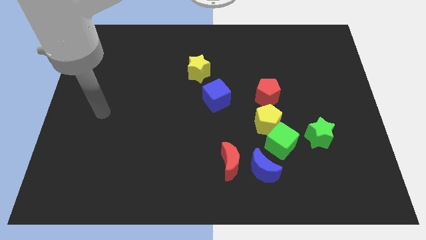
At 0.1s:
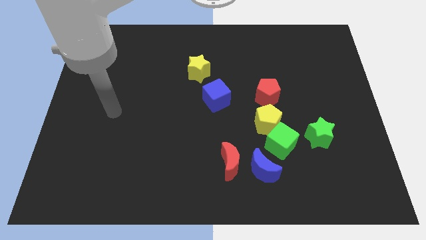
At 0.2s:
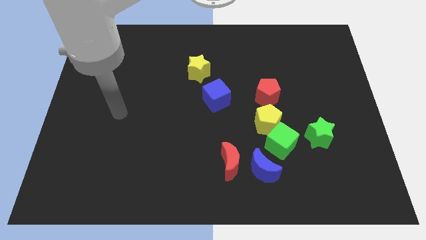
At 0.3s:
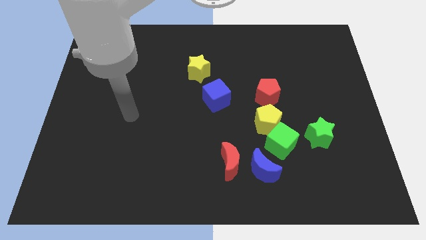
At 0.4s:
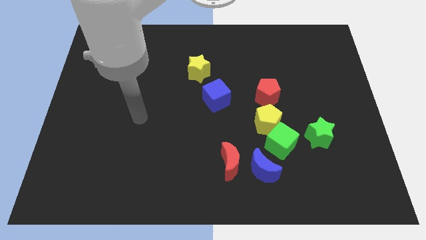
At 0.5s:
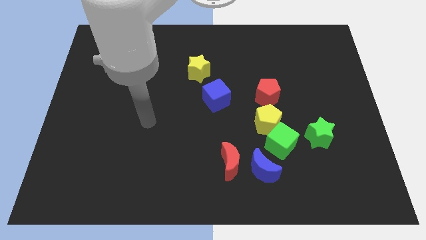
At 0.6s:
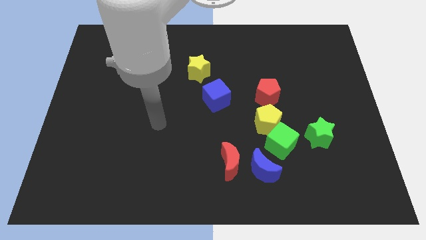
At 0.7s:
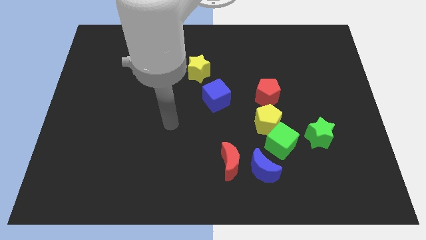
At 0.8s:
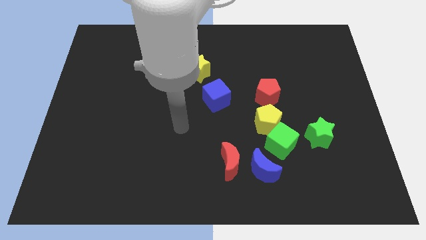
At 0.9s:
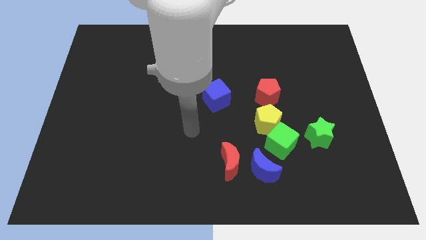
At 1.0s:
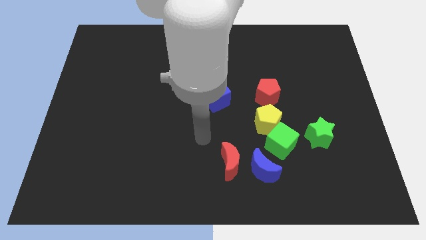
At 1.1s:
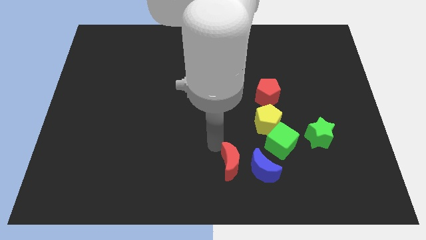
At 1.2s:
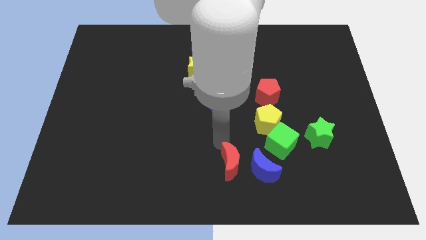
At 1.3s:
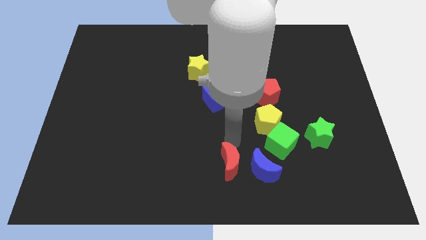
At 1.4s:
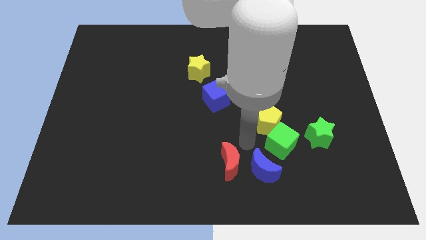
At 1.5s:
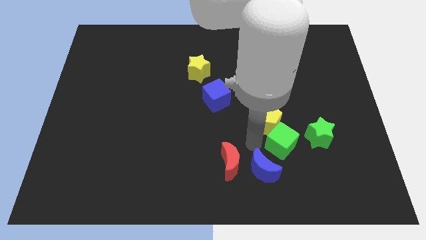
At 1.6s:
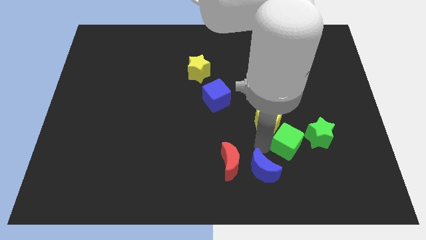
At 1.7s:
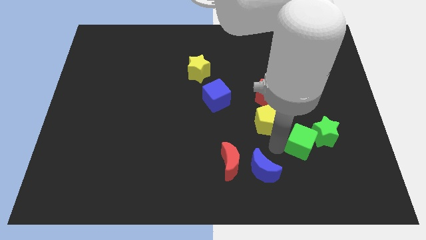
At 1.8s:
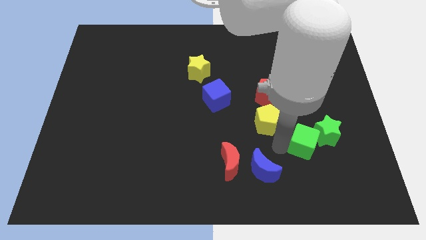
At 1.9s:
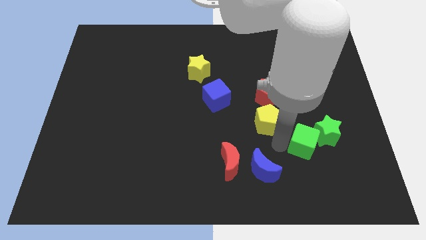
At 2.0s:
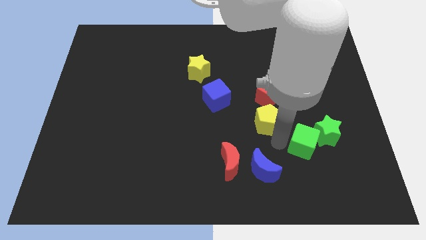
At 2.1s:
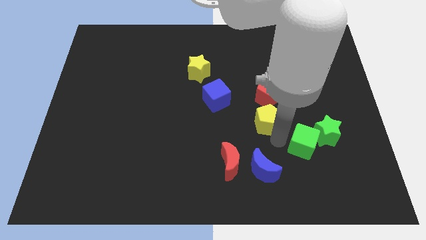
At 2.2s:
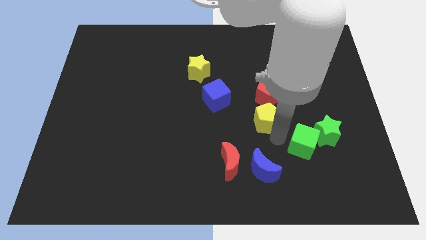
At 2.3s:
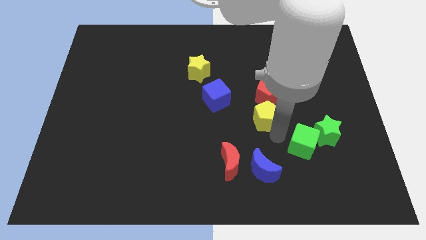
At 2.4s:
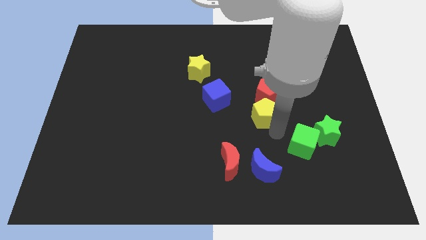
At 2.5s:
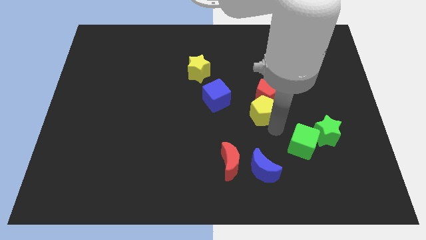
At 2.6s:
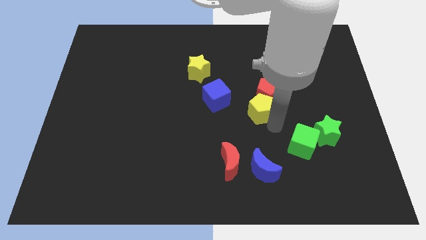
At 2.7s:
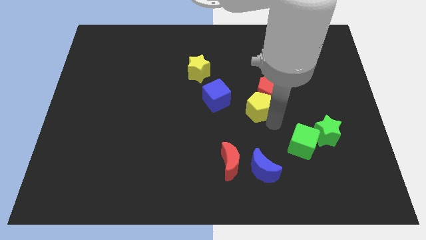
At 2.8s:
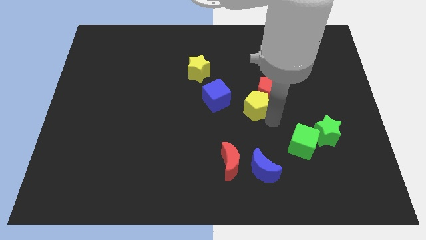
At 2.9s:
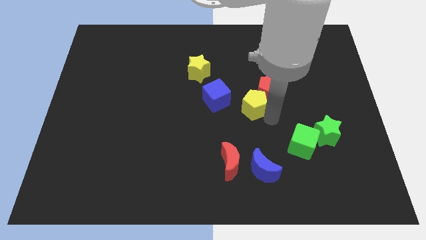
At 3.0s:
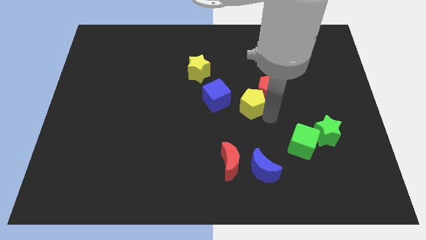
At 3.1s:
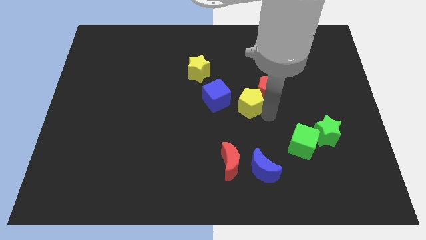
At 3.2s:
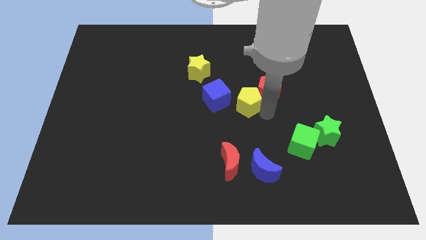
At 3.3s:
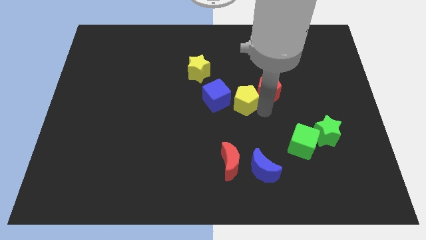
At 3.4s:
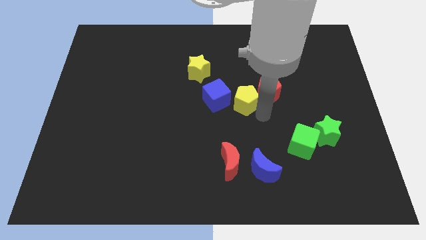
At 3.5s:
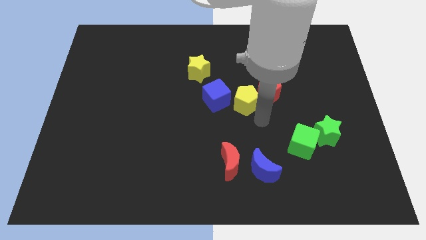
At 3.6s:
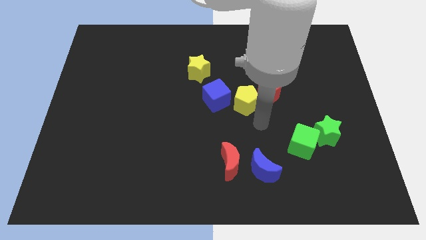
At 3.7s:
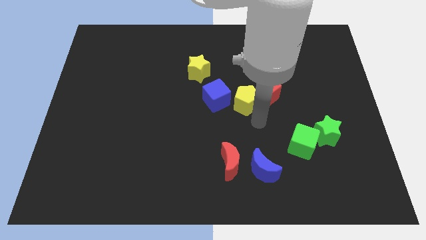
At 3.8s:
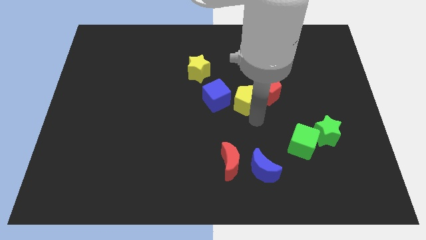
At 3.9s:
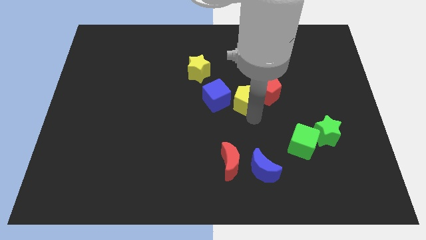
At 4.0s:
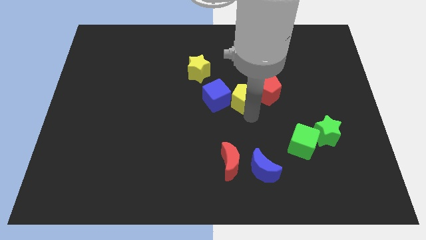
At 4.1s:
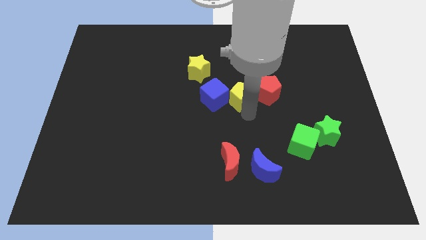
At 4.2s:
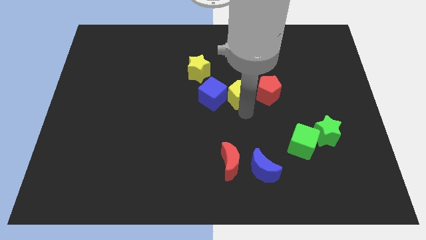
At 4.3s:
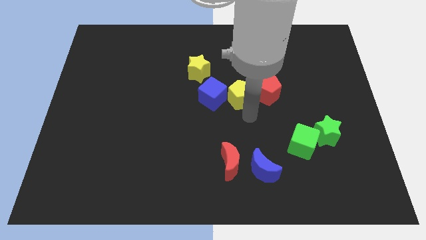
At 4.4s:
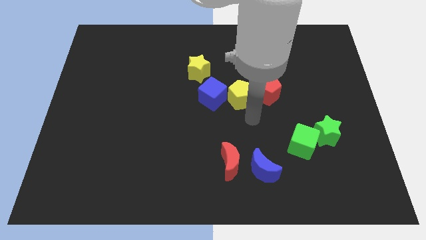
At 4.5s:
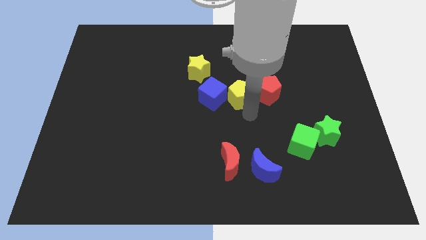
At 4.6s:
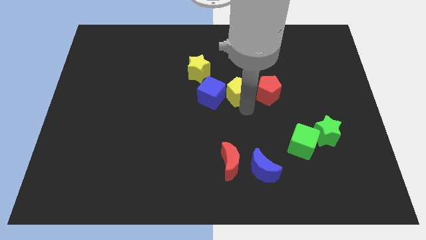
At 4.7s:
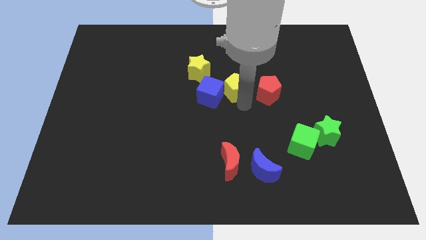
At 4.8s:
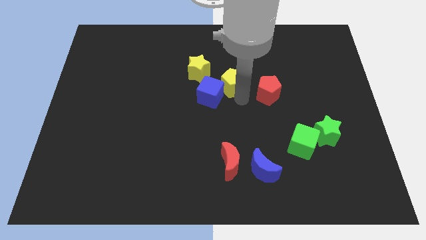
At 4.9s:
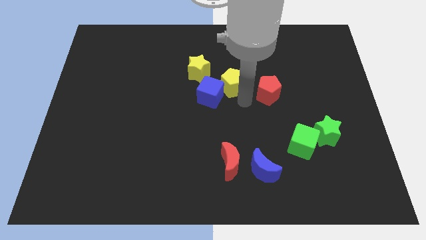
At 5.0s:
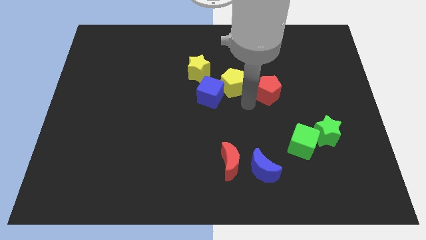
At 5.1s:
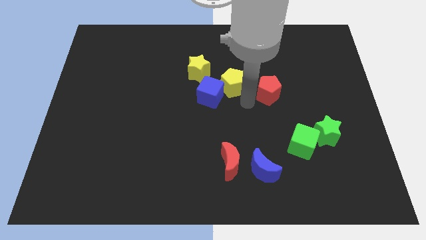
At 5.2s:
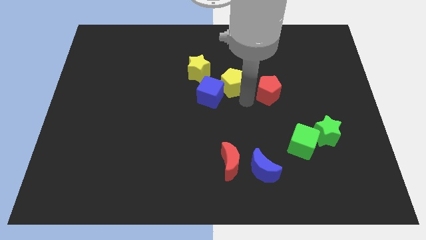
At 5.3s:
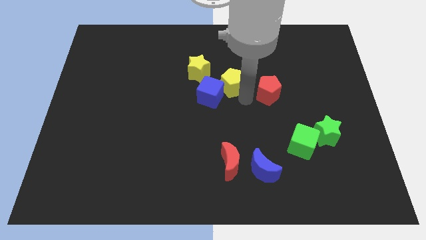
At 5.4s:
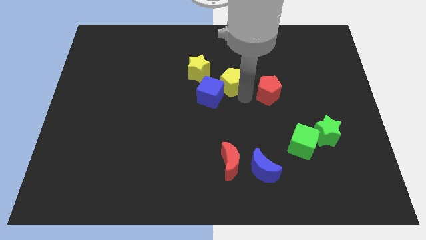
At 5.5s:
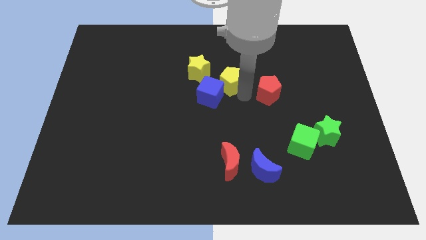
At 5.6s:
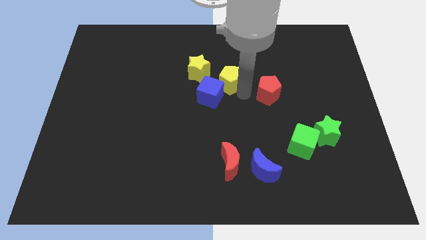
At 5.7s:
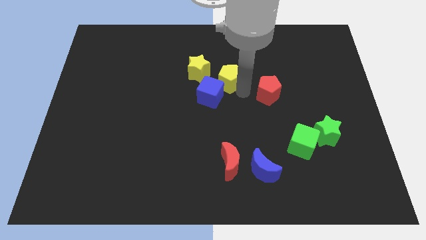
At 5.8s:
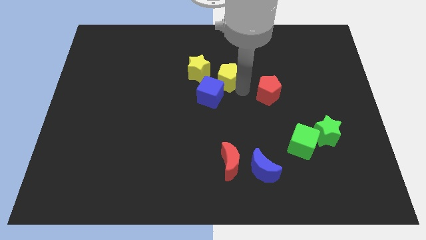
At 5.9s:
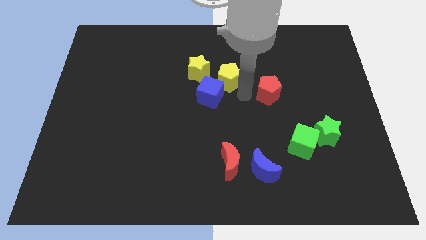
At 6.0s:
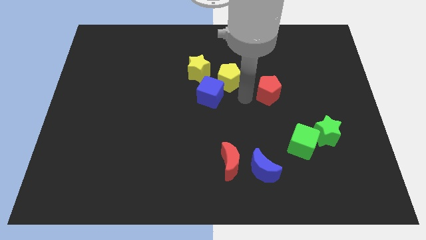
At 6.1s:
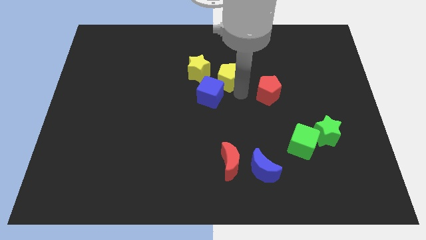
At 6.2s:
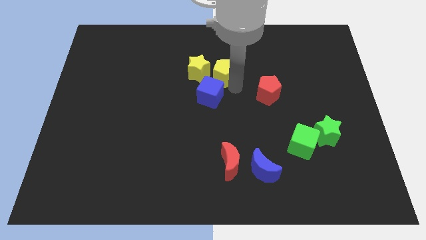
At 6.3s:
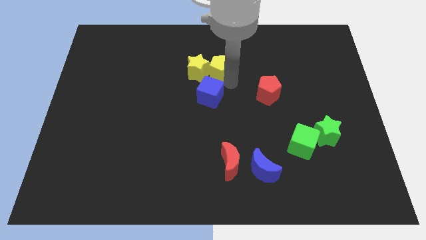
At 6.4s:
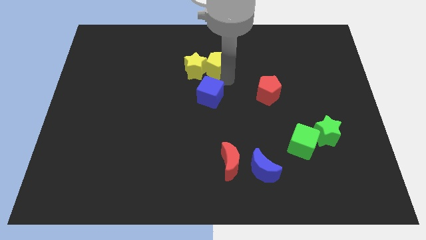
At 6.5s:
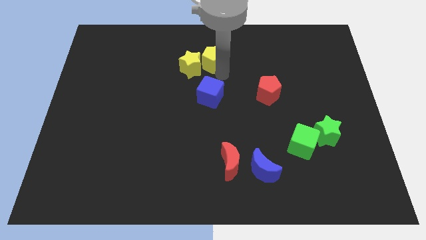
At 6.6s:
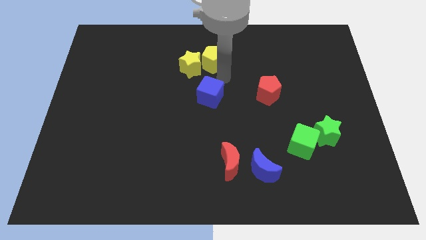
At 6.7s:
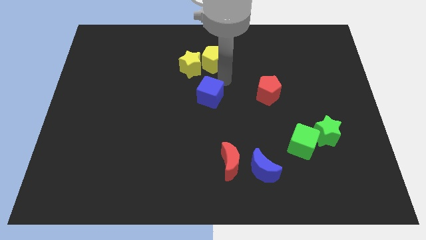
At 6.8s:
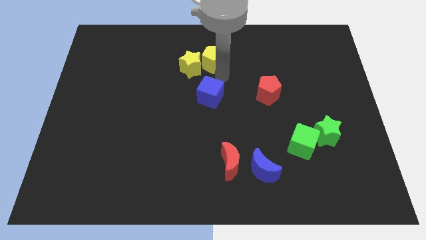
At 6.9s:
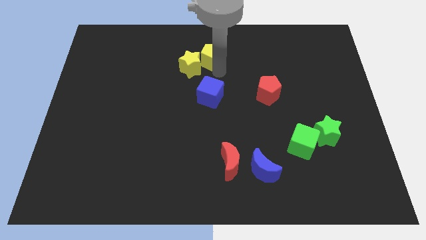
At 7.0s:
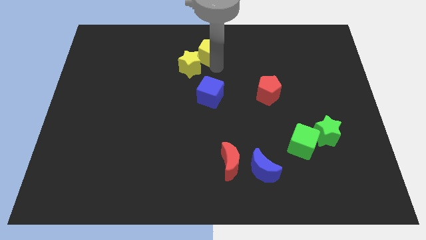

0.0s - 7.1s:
move the yellow pentagon to the top
